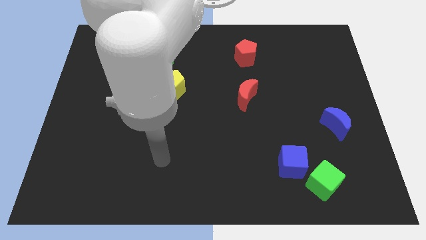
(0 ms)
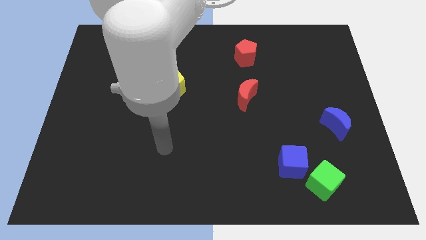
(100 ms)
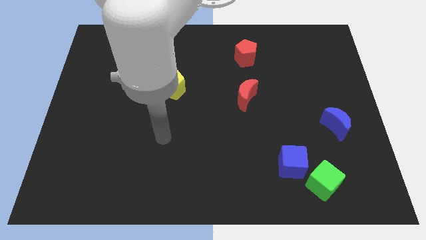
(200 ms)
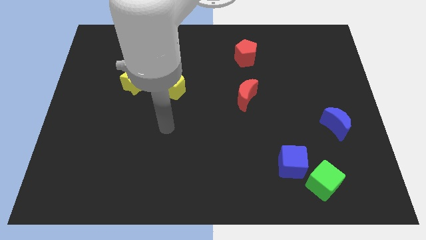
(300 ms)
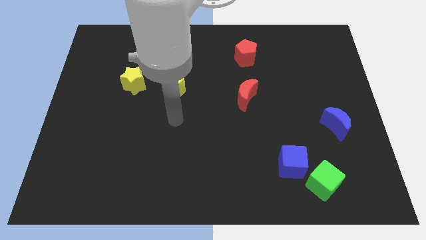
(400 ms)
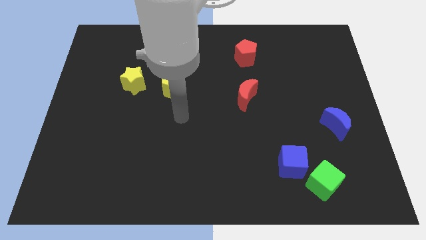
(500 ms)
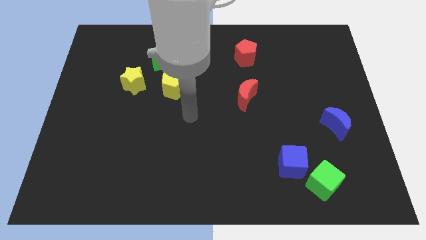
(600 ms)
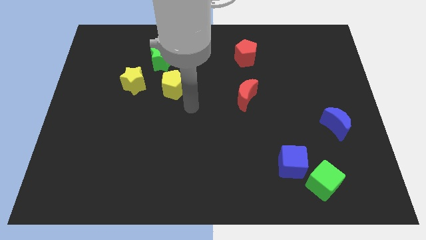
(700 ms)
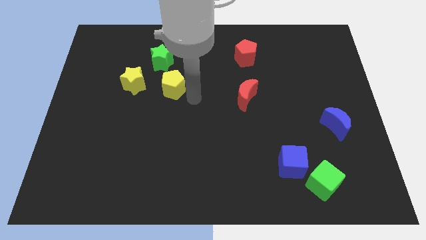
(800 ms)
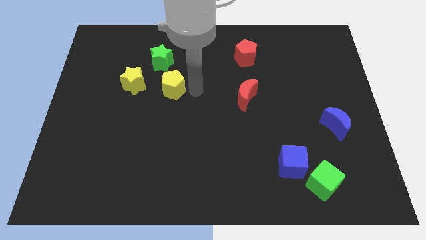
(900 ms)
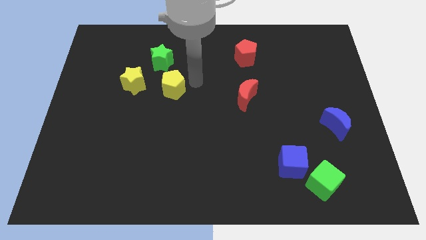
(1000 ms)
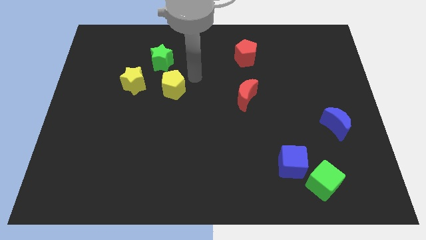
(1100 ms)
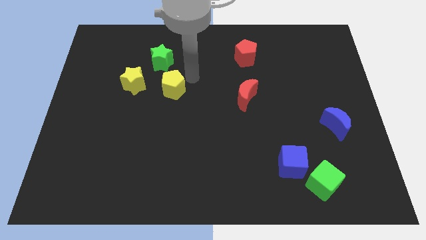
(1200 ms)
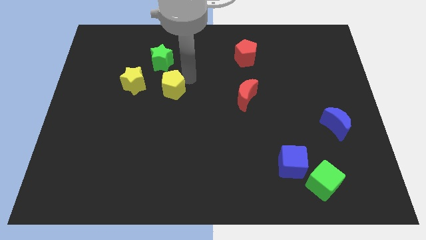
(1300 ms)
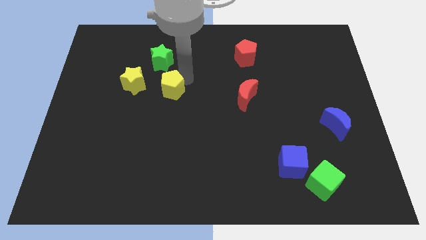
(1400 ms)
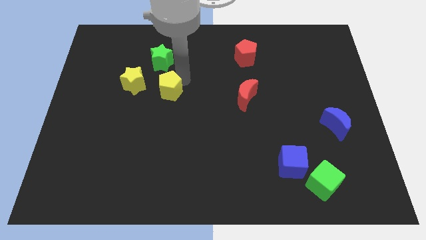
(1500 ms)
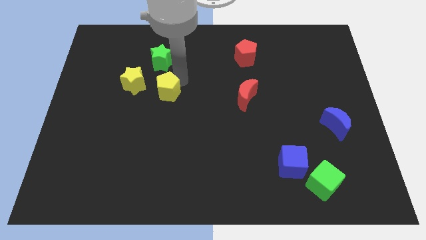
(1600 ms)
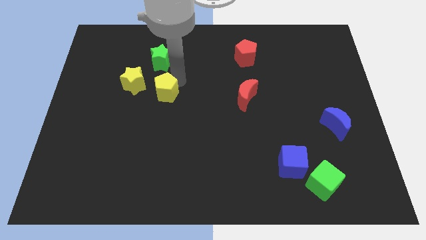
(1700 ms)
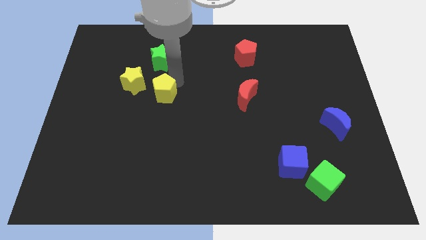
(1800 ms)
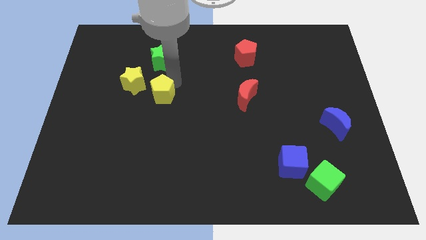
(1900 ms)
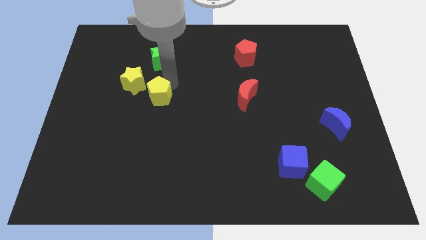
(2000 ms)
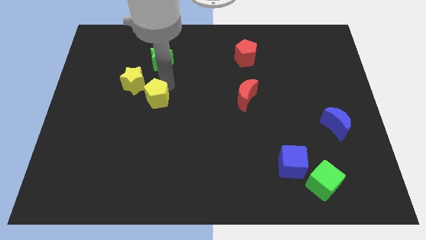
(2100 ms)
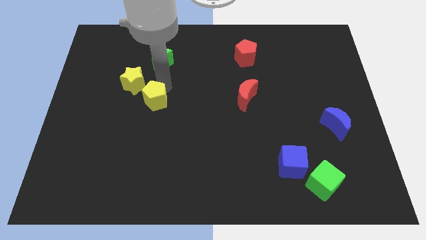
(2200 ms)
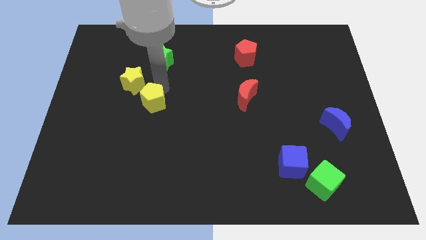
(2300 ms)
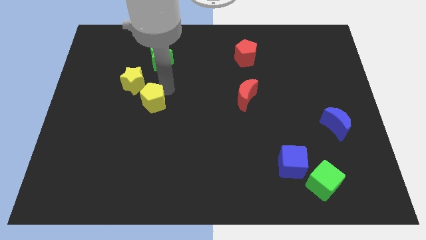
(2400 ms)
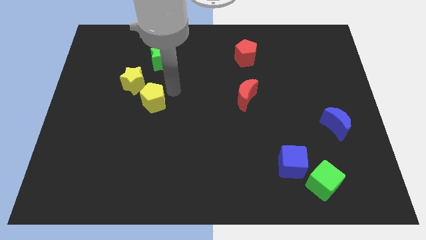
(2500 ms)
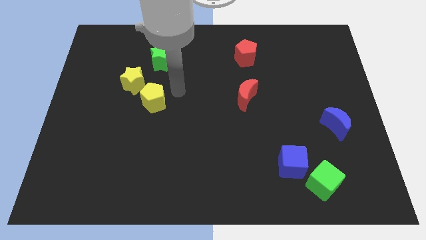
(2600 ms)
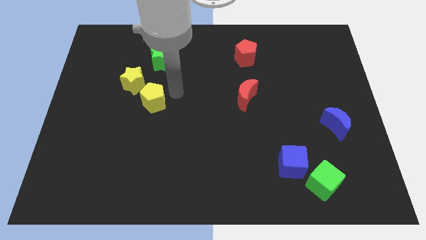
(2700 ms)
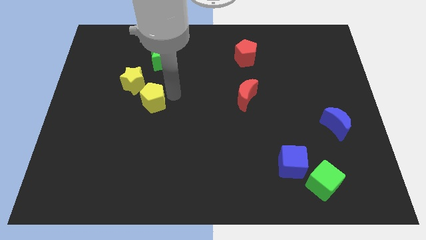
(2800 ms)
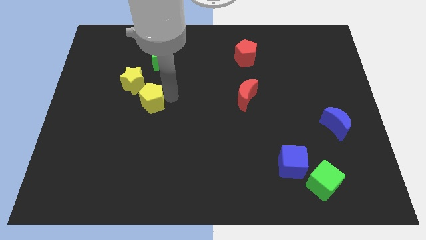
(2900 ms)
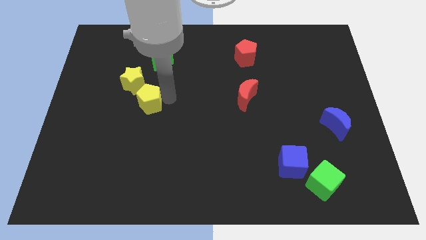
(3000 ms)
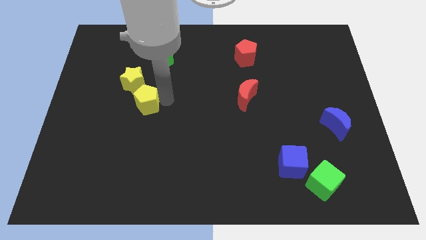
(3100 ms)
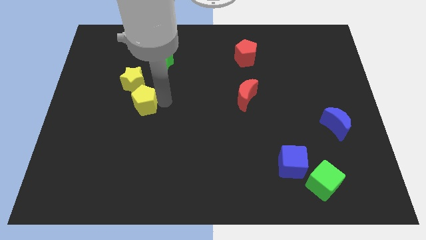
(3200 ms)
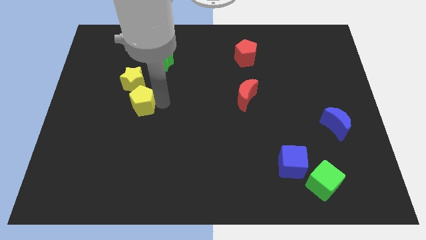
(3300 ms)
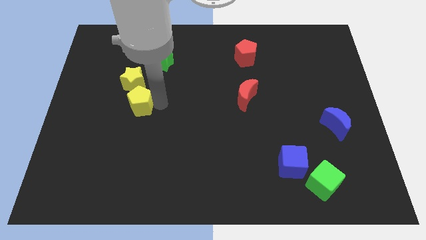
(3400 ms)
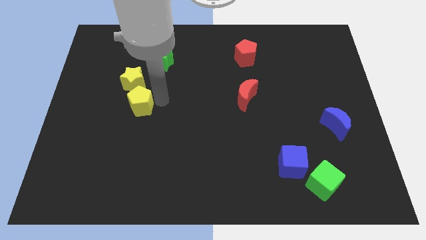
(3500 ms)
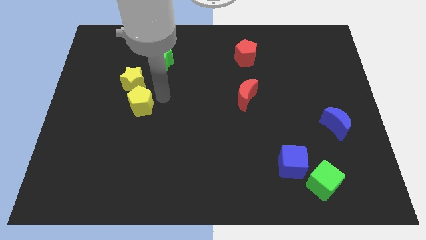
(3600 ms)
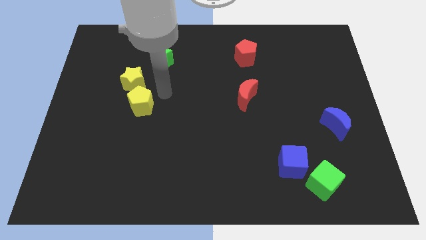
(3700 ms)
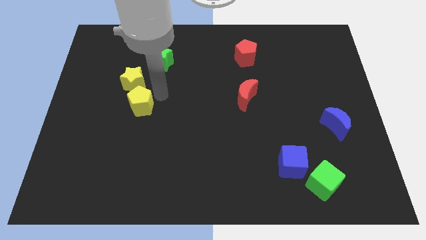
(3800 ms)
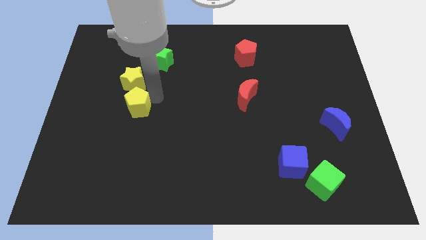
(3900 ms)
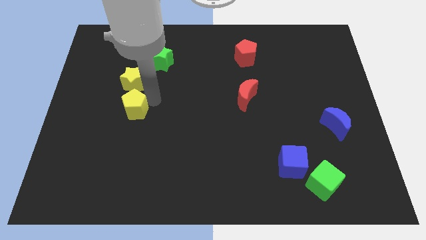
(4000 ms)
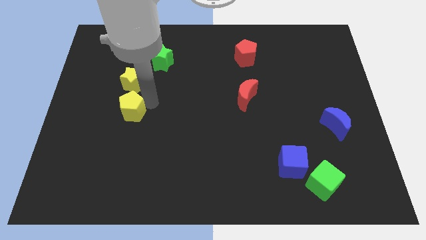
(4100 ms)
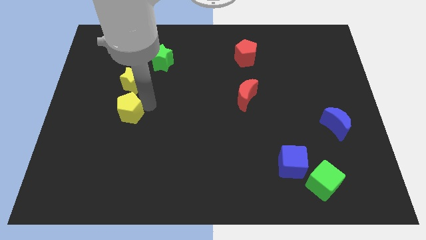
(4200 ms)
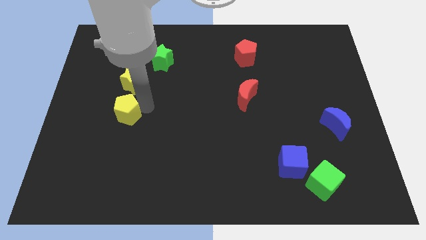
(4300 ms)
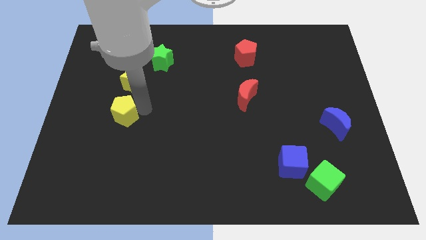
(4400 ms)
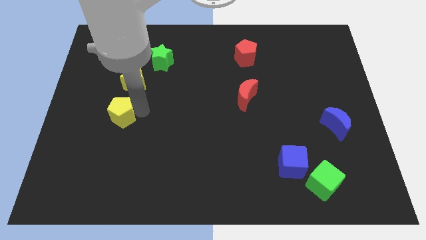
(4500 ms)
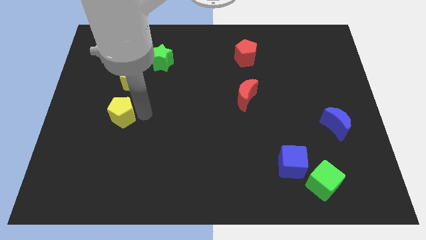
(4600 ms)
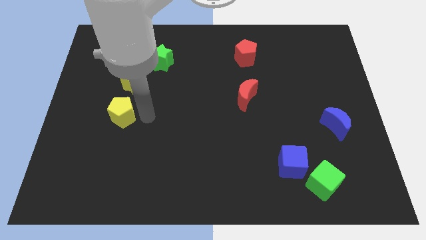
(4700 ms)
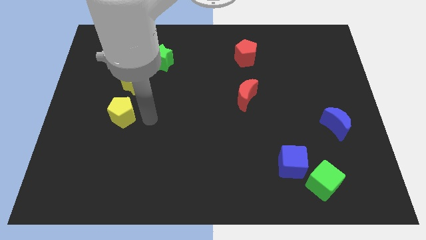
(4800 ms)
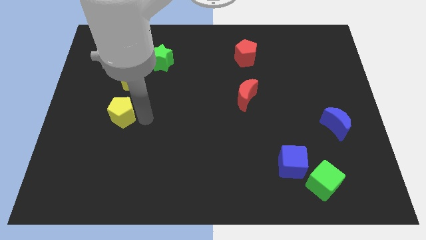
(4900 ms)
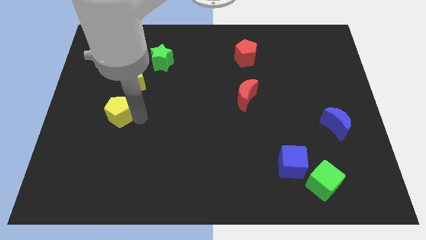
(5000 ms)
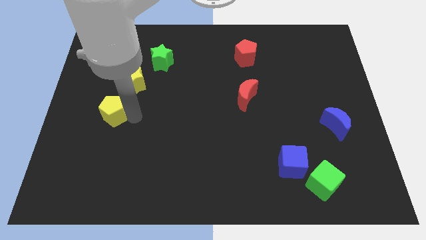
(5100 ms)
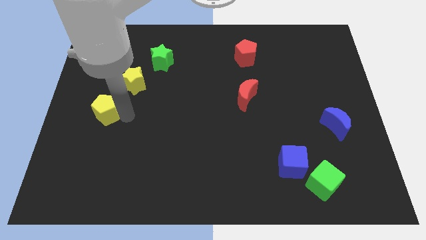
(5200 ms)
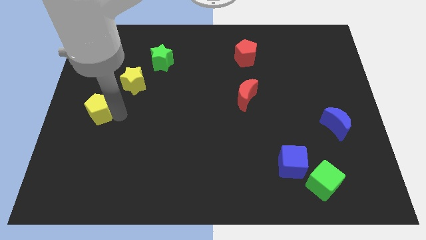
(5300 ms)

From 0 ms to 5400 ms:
put the yellow pentagon to the left side
